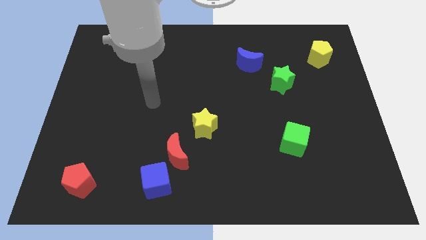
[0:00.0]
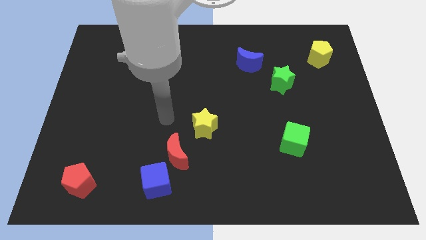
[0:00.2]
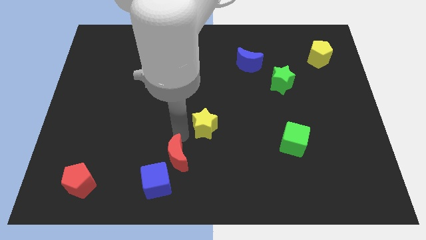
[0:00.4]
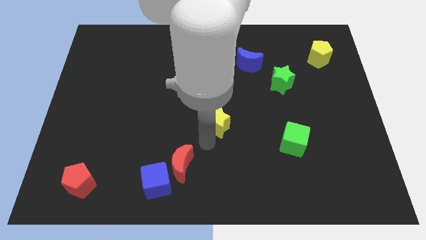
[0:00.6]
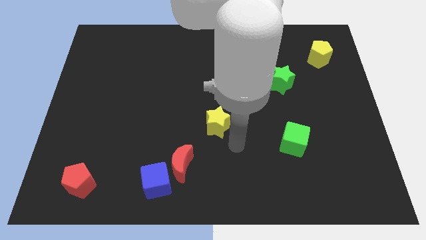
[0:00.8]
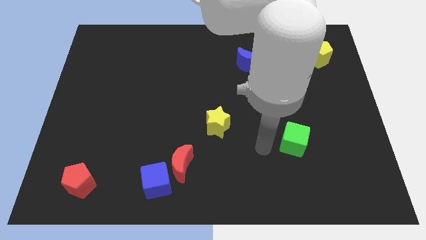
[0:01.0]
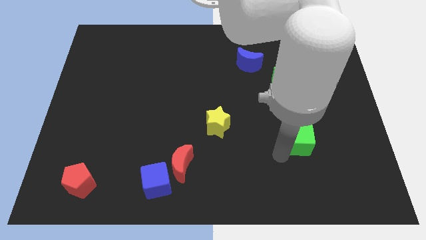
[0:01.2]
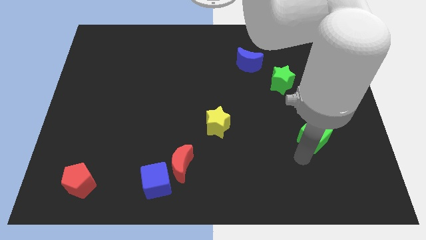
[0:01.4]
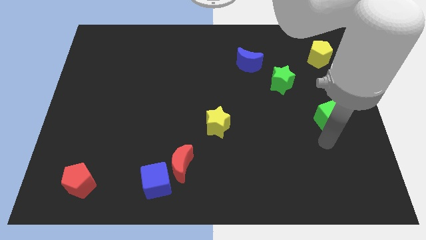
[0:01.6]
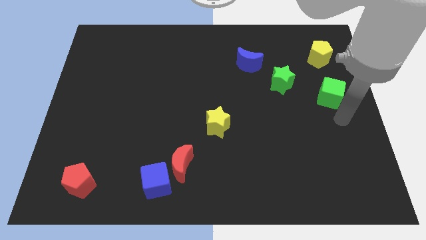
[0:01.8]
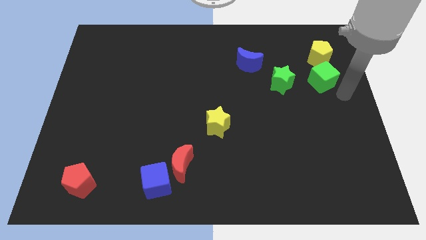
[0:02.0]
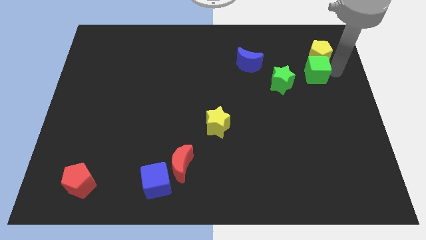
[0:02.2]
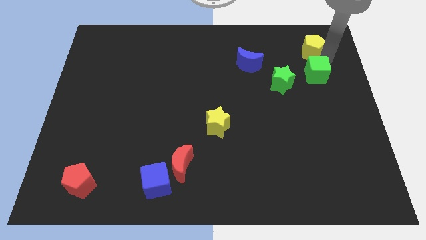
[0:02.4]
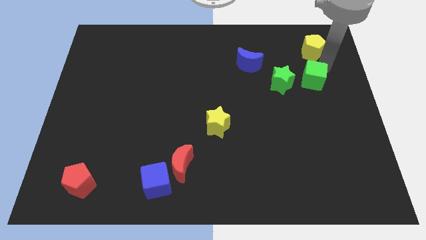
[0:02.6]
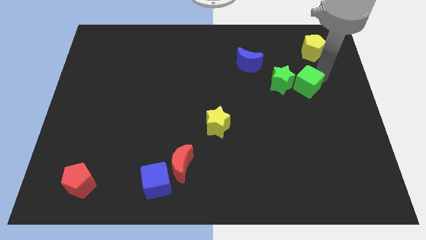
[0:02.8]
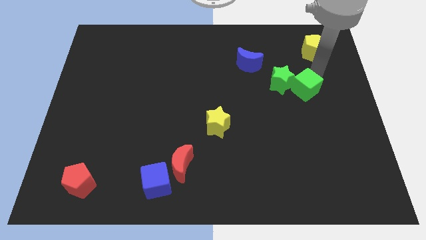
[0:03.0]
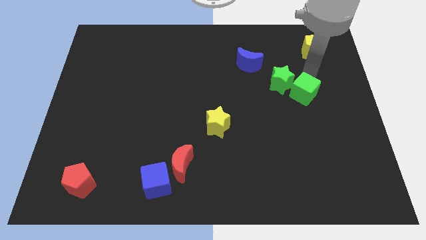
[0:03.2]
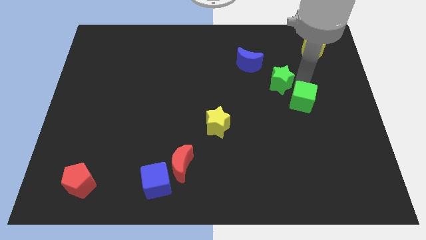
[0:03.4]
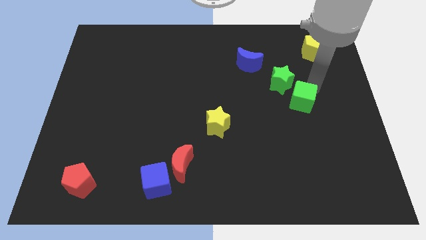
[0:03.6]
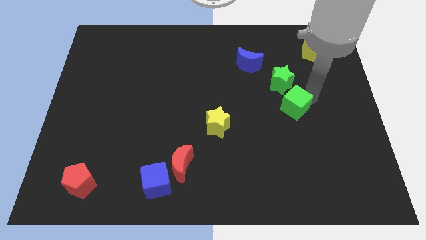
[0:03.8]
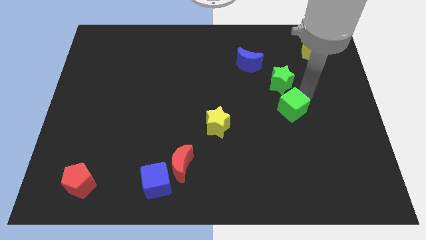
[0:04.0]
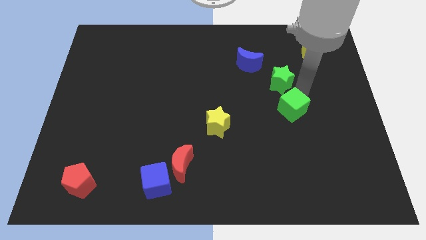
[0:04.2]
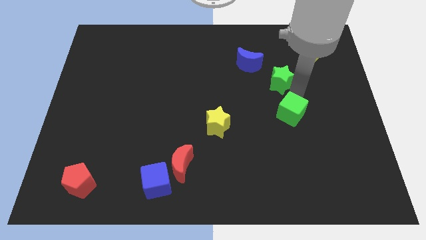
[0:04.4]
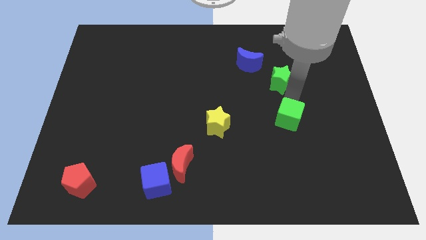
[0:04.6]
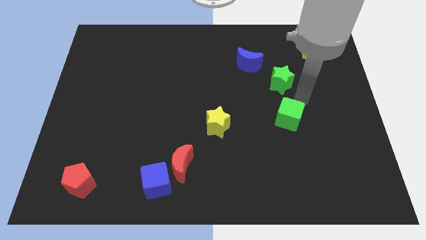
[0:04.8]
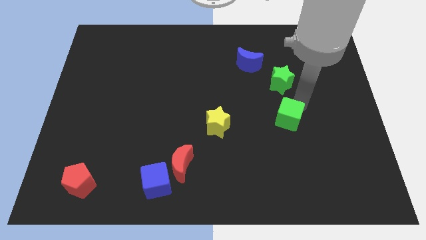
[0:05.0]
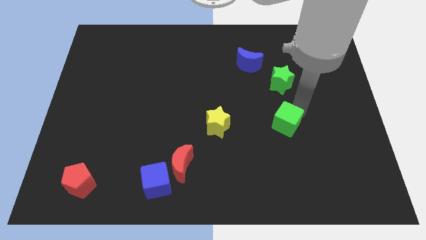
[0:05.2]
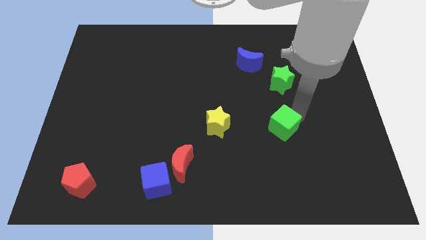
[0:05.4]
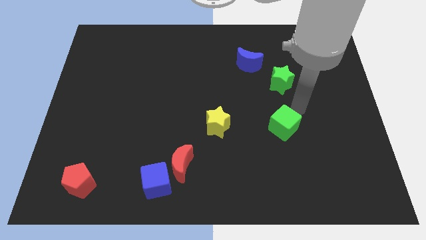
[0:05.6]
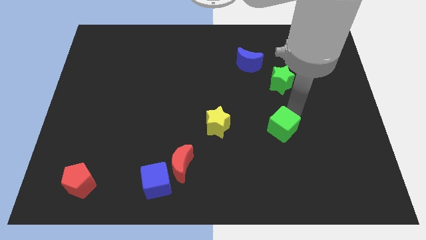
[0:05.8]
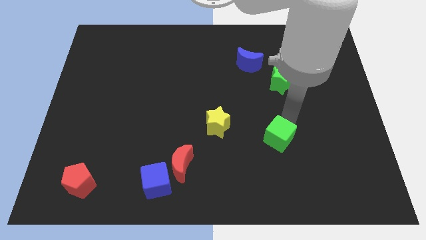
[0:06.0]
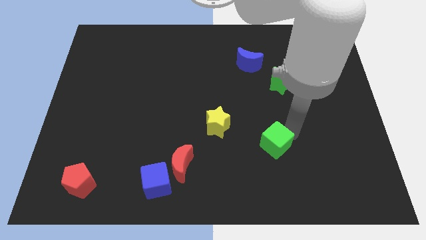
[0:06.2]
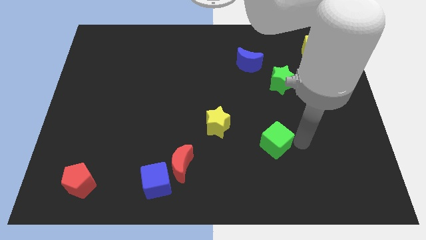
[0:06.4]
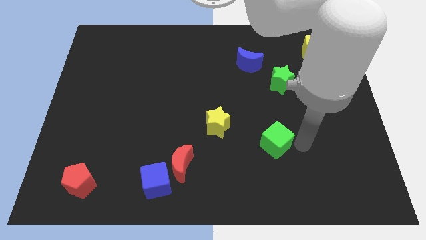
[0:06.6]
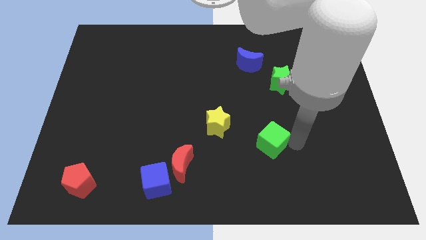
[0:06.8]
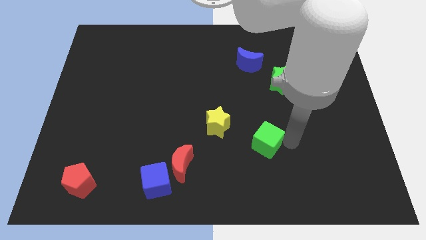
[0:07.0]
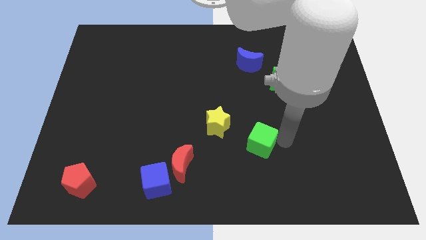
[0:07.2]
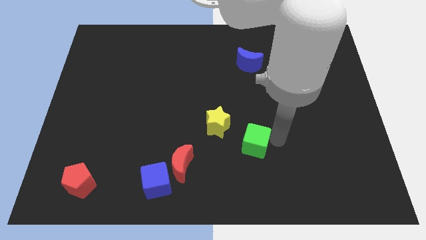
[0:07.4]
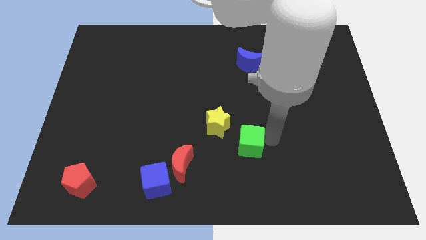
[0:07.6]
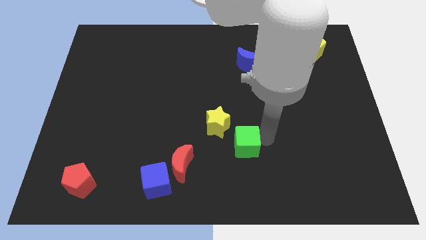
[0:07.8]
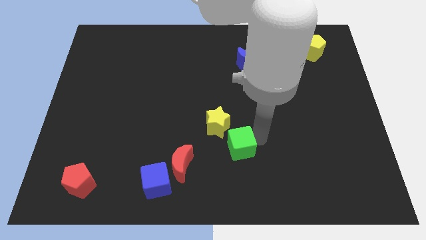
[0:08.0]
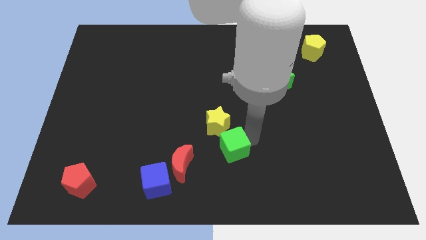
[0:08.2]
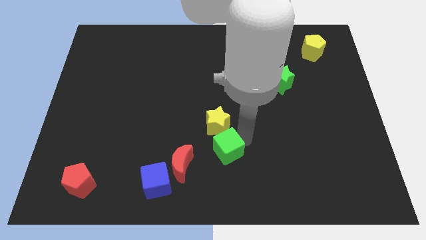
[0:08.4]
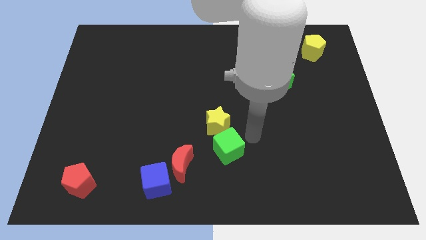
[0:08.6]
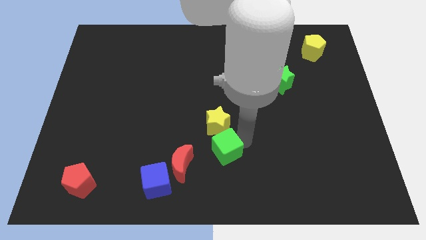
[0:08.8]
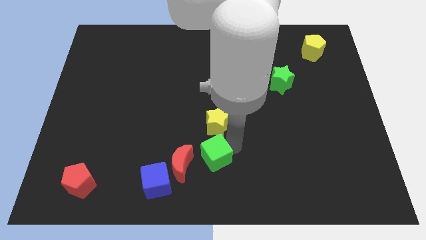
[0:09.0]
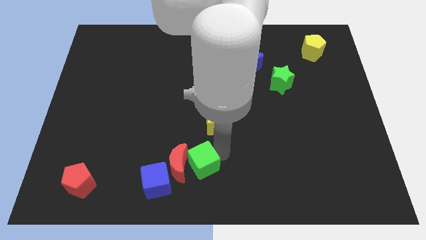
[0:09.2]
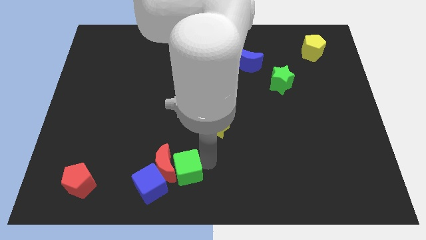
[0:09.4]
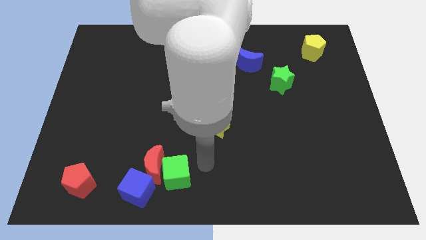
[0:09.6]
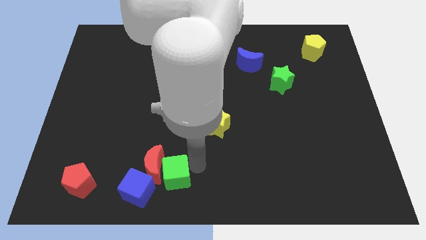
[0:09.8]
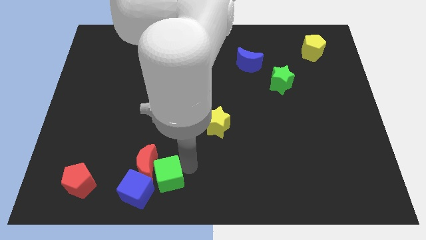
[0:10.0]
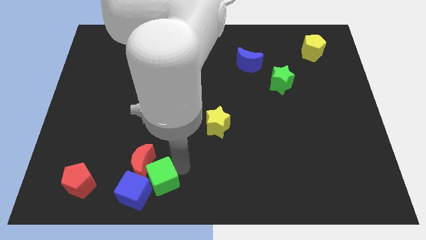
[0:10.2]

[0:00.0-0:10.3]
push the green cube towards the blue cube

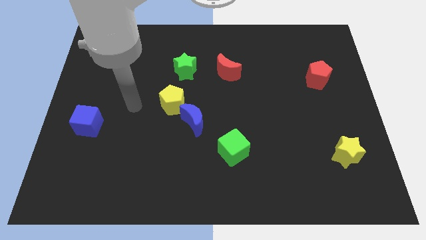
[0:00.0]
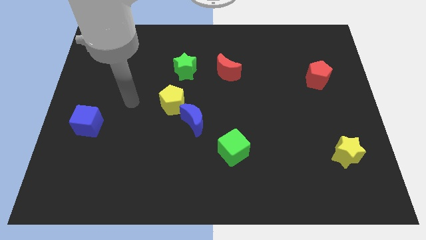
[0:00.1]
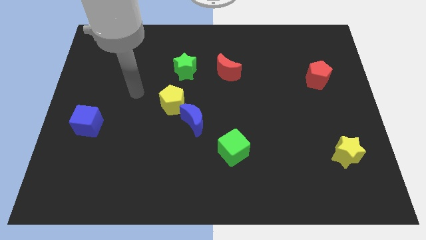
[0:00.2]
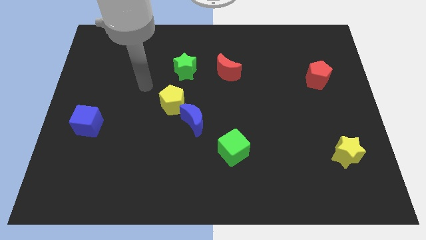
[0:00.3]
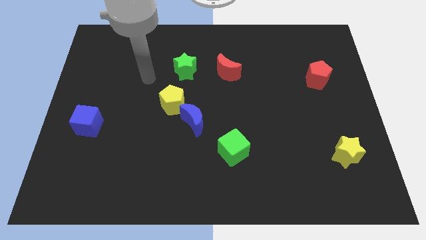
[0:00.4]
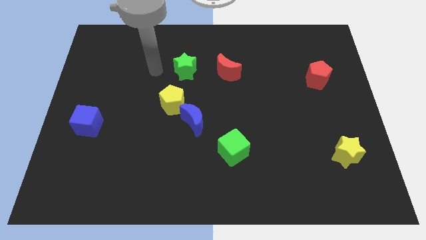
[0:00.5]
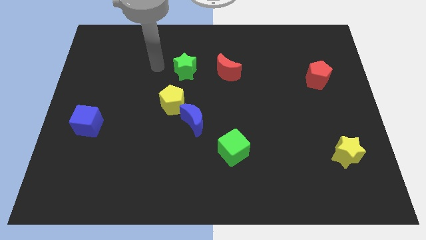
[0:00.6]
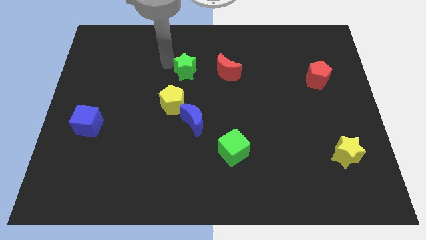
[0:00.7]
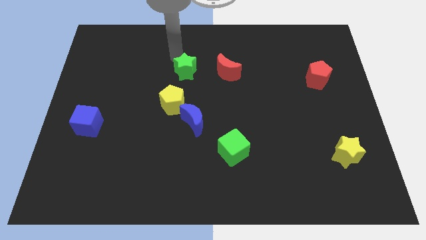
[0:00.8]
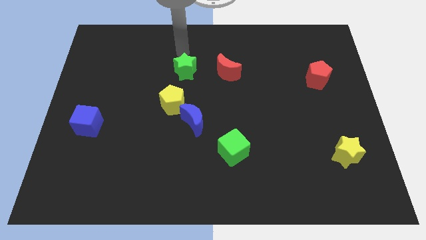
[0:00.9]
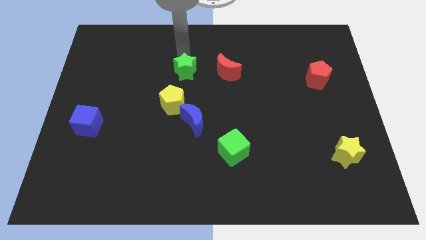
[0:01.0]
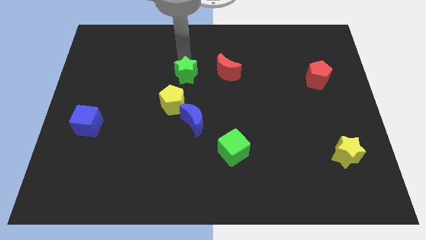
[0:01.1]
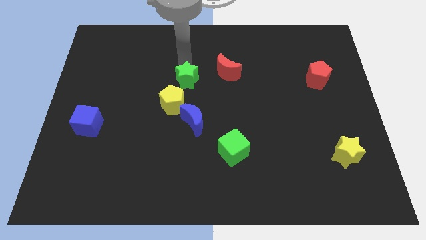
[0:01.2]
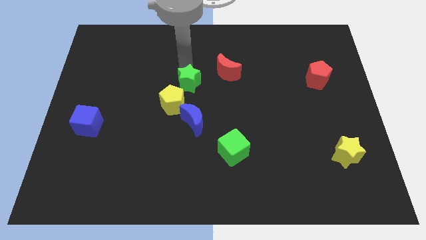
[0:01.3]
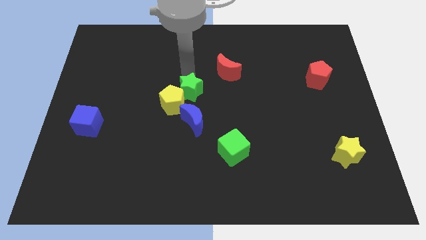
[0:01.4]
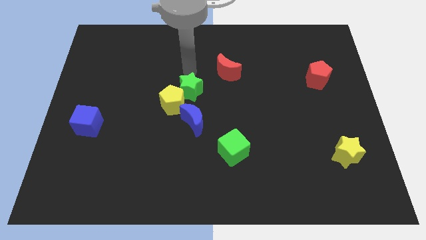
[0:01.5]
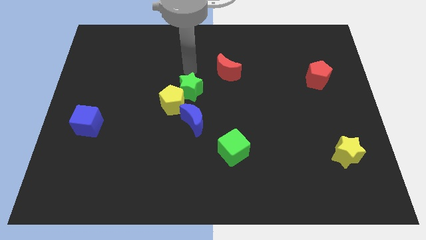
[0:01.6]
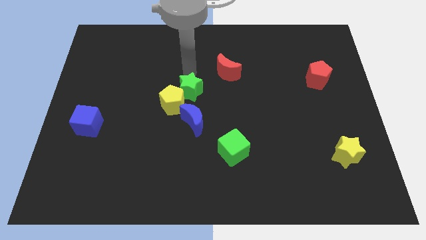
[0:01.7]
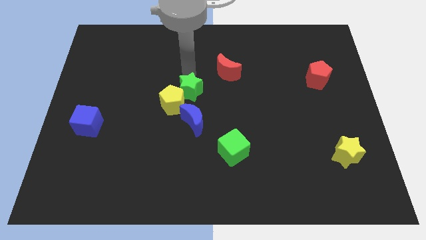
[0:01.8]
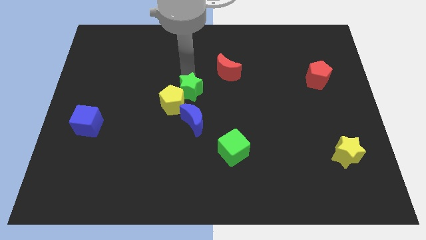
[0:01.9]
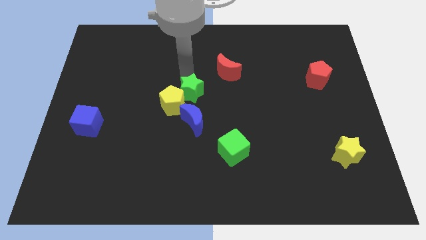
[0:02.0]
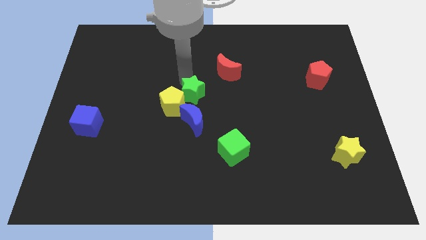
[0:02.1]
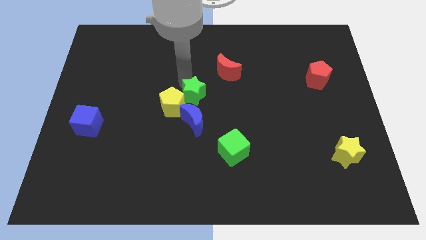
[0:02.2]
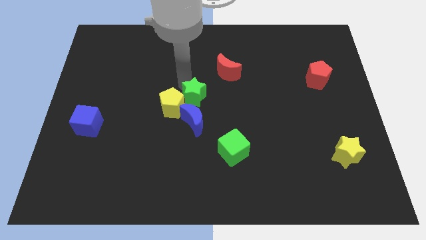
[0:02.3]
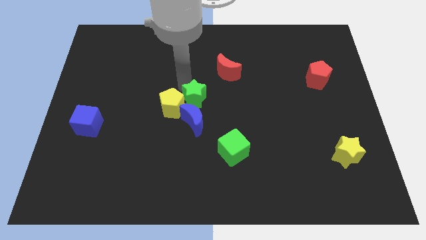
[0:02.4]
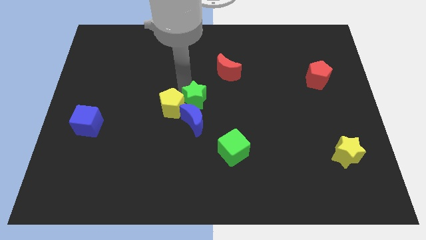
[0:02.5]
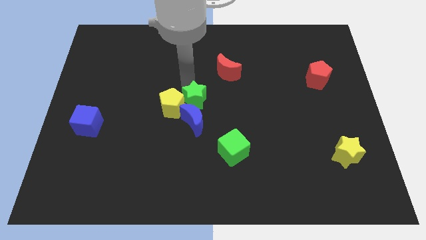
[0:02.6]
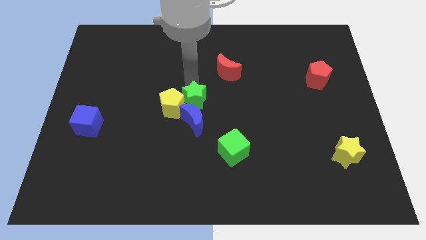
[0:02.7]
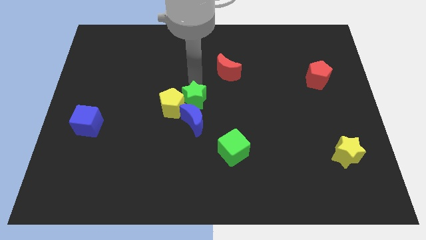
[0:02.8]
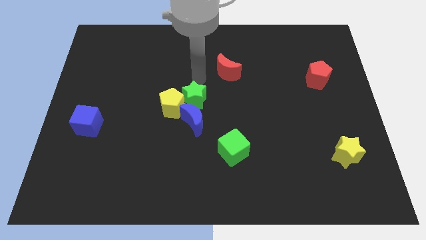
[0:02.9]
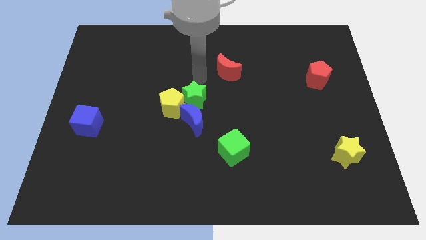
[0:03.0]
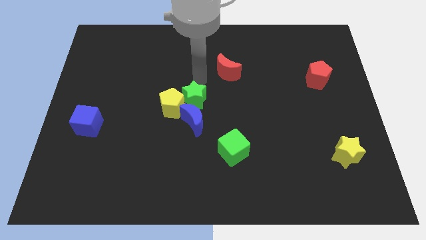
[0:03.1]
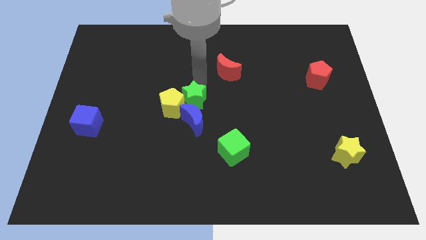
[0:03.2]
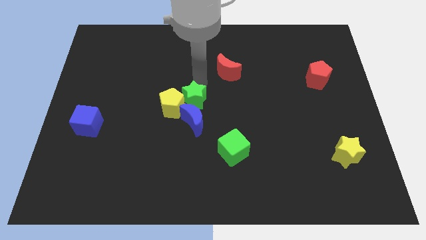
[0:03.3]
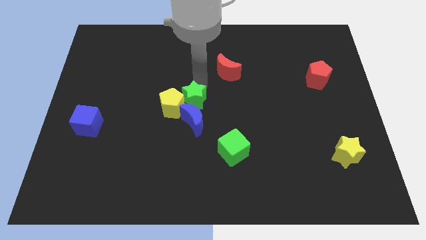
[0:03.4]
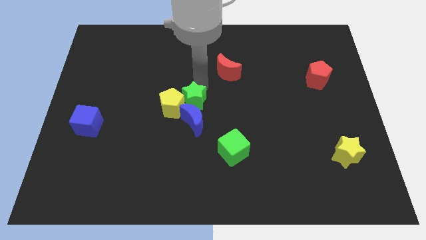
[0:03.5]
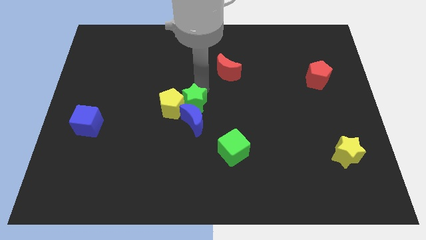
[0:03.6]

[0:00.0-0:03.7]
move the green star next to the blue moon
